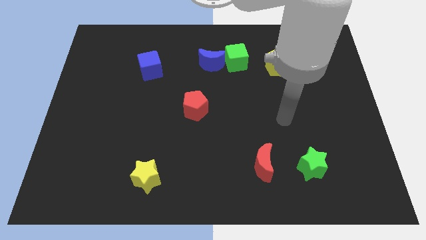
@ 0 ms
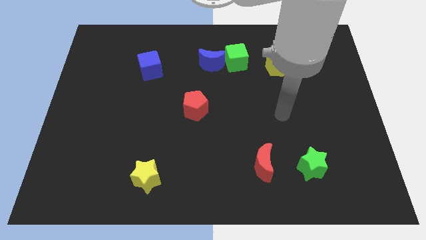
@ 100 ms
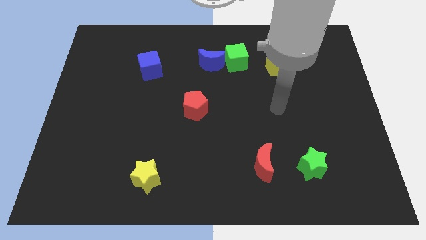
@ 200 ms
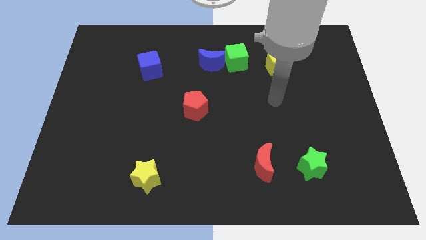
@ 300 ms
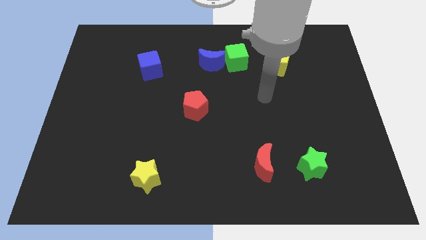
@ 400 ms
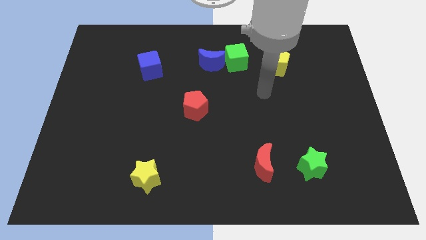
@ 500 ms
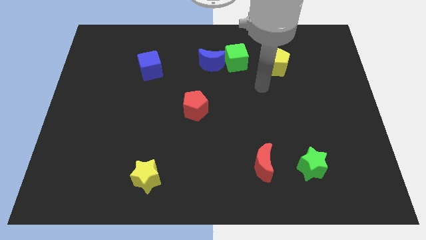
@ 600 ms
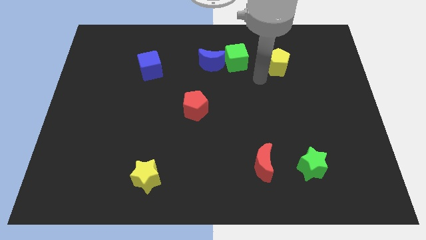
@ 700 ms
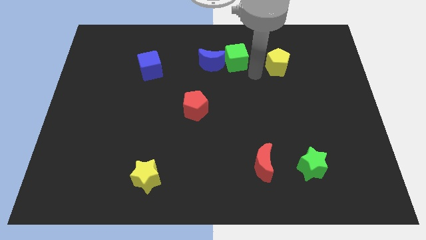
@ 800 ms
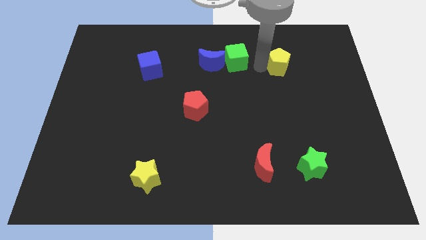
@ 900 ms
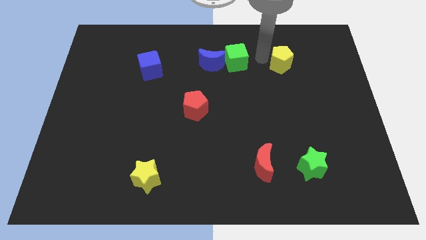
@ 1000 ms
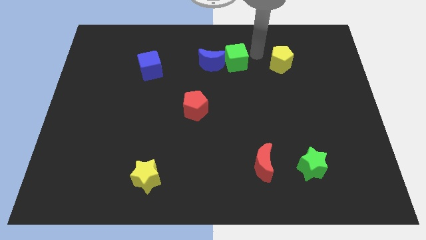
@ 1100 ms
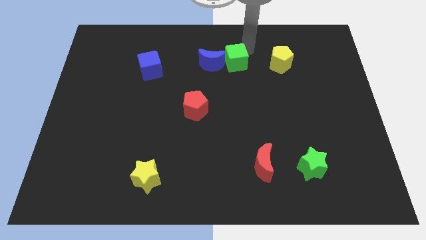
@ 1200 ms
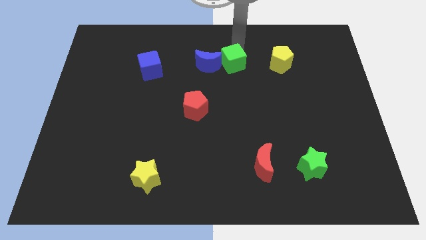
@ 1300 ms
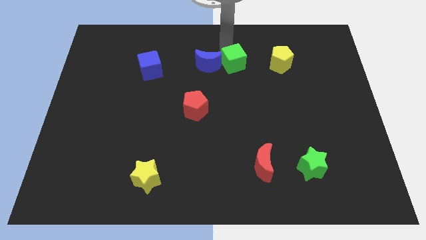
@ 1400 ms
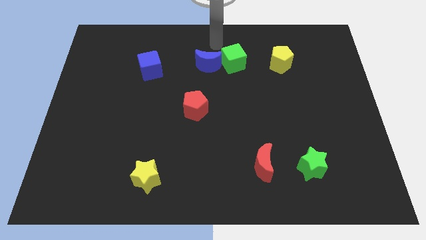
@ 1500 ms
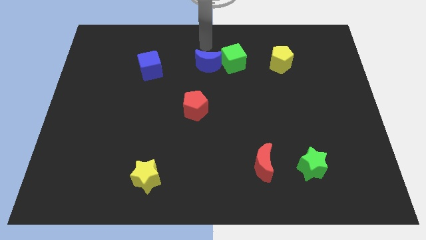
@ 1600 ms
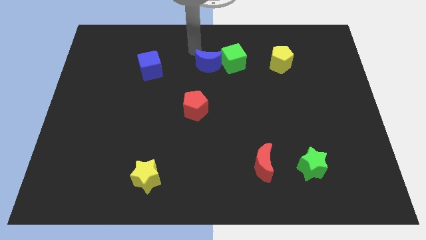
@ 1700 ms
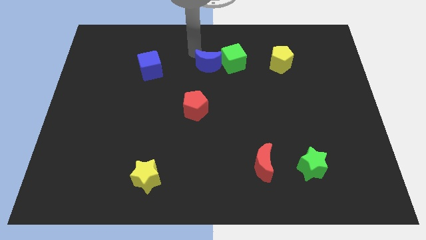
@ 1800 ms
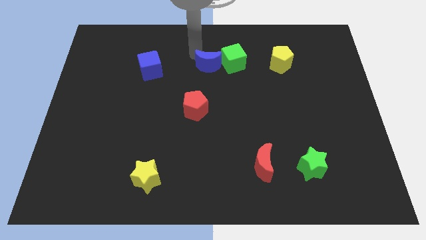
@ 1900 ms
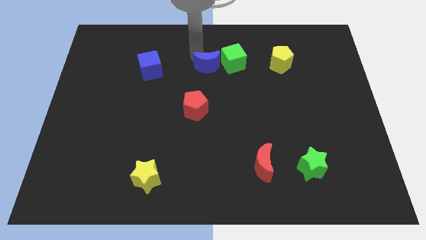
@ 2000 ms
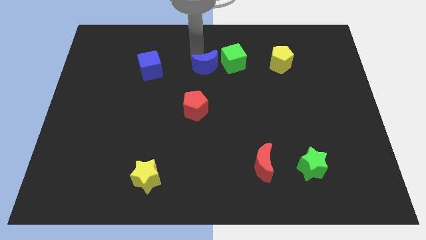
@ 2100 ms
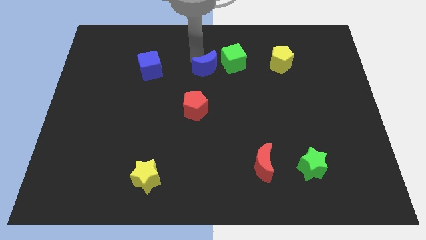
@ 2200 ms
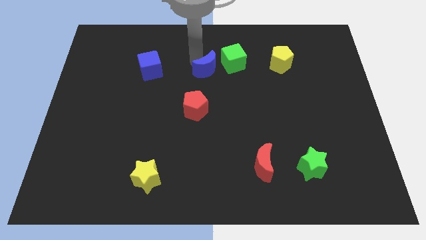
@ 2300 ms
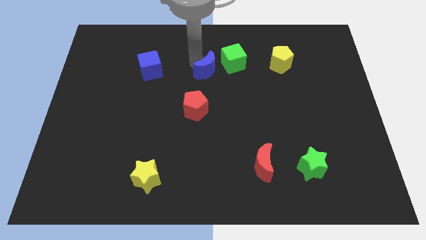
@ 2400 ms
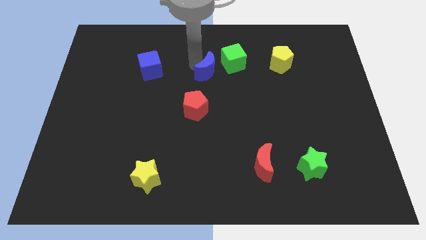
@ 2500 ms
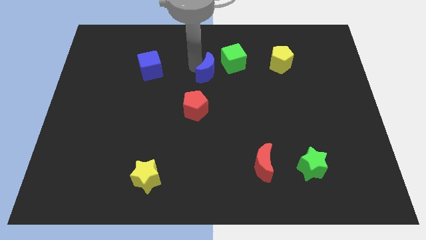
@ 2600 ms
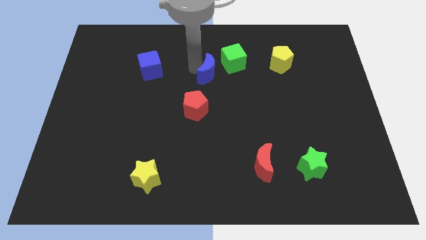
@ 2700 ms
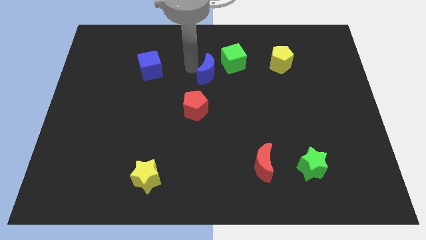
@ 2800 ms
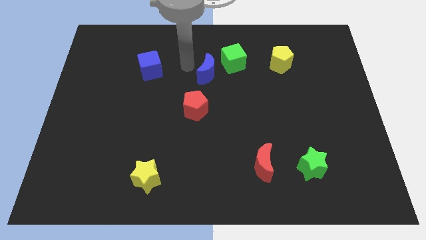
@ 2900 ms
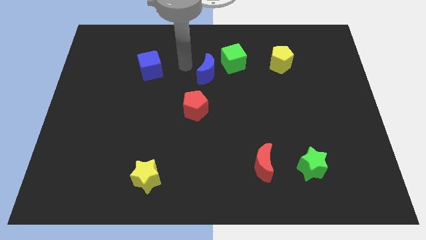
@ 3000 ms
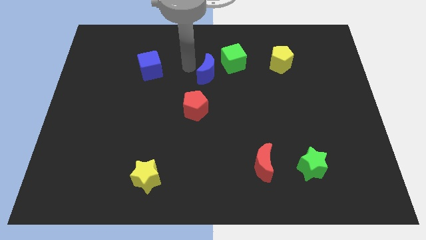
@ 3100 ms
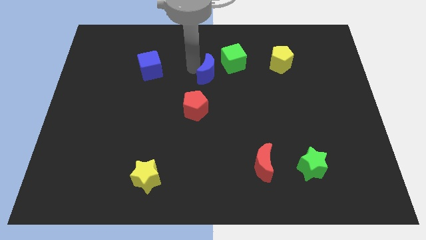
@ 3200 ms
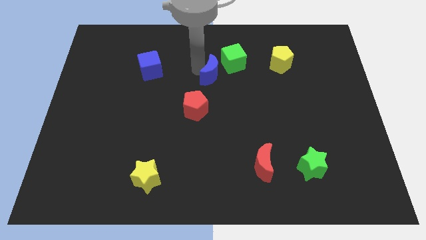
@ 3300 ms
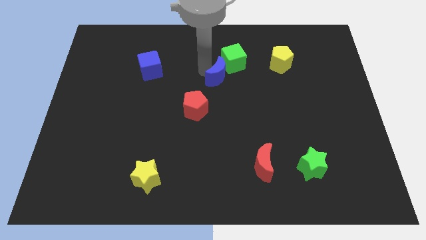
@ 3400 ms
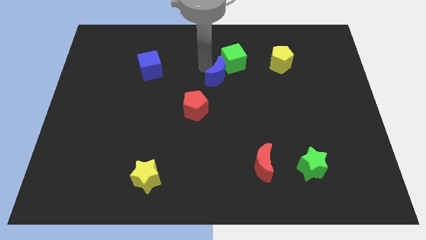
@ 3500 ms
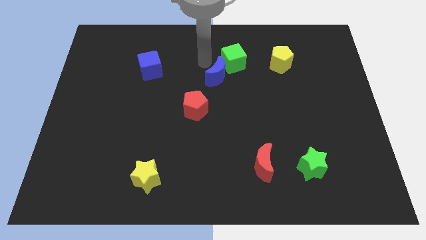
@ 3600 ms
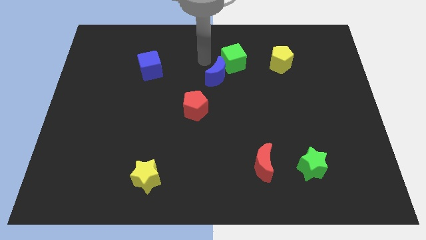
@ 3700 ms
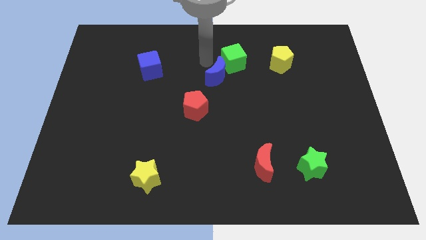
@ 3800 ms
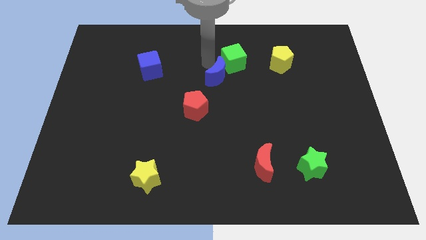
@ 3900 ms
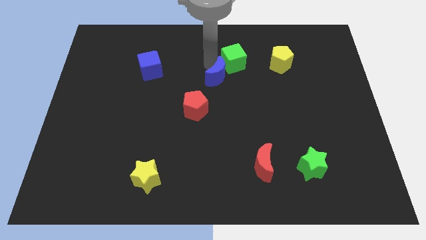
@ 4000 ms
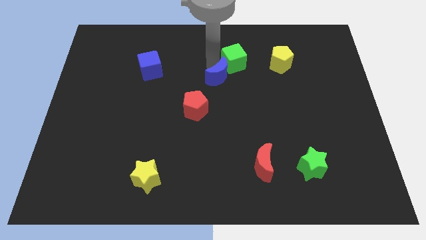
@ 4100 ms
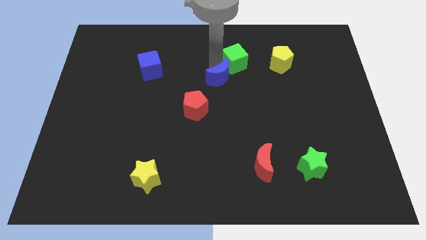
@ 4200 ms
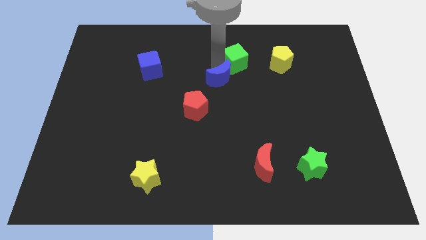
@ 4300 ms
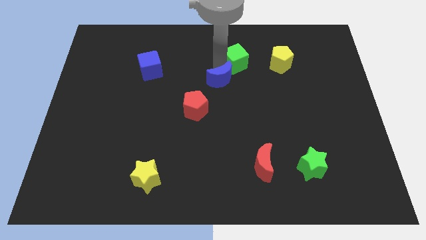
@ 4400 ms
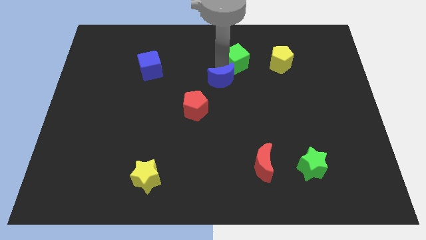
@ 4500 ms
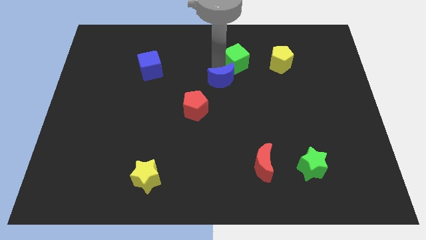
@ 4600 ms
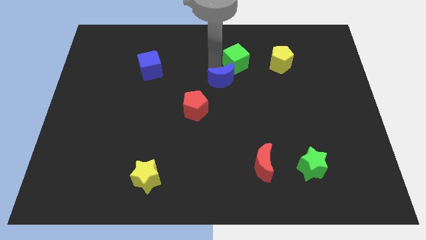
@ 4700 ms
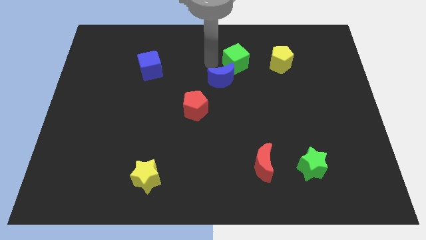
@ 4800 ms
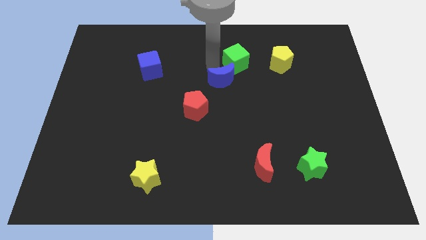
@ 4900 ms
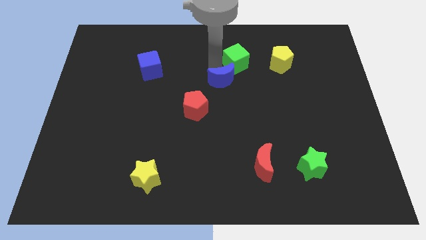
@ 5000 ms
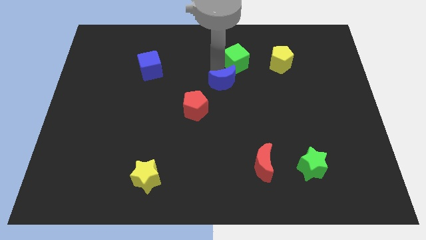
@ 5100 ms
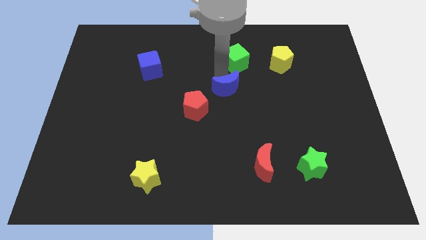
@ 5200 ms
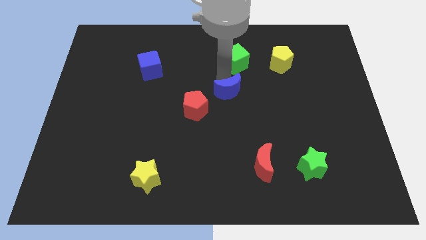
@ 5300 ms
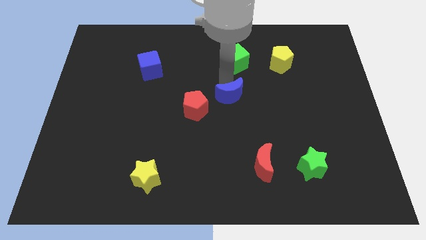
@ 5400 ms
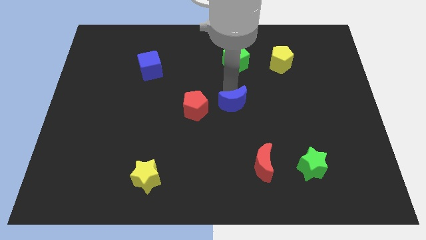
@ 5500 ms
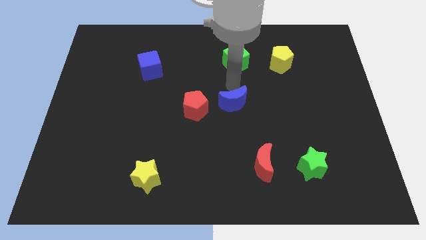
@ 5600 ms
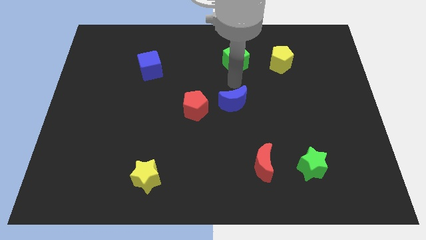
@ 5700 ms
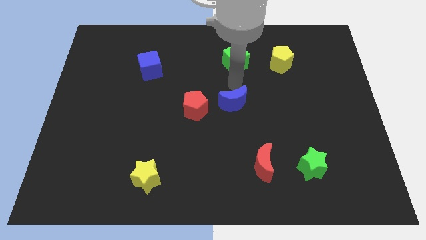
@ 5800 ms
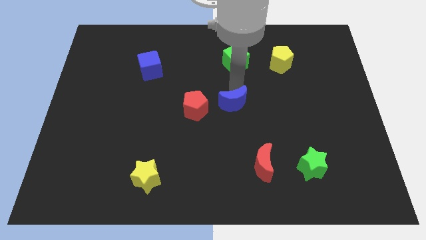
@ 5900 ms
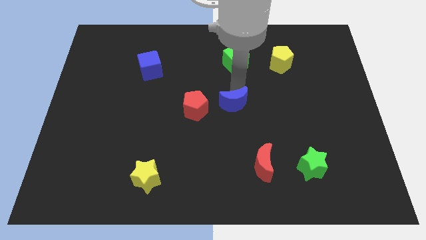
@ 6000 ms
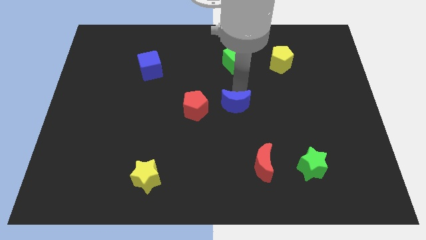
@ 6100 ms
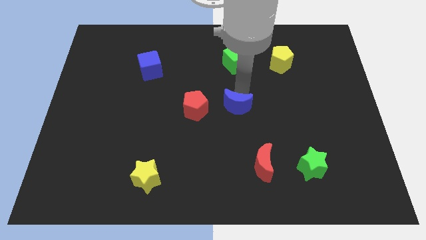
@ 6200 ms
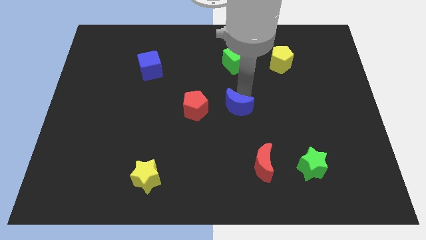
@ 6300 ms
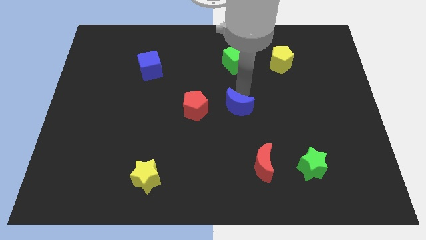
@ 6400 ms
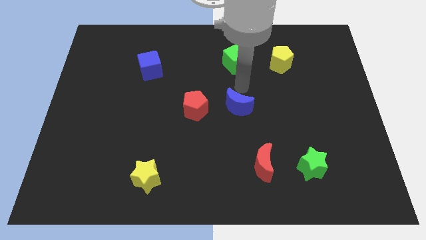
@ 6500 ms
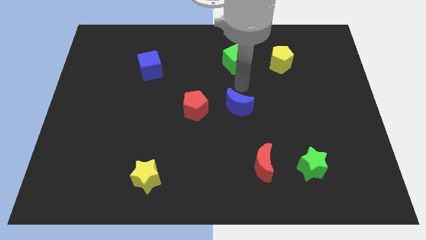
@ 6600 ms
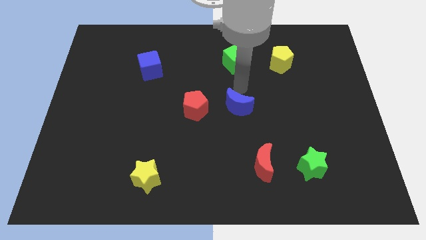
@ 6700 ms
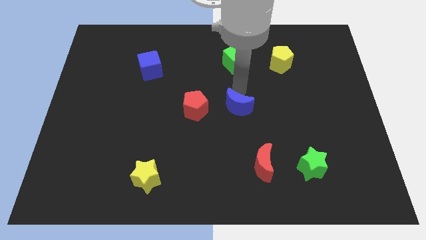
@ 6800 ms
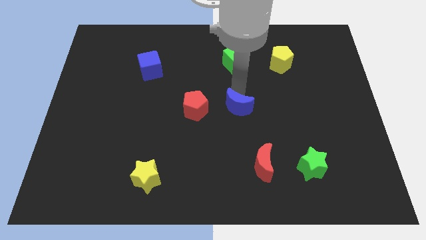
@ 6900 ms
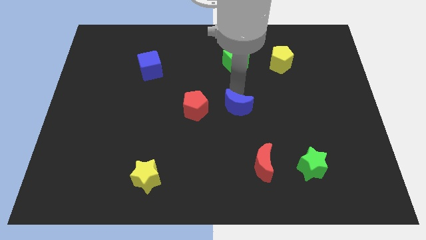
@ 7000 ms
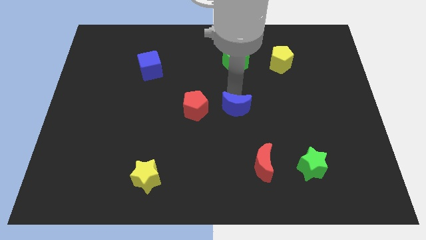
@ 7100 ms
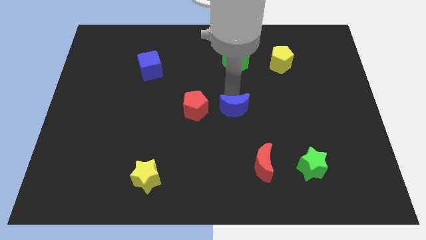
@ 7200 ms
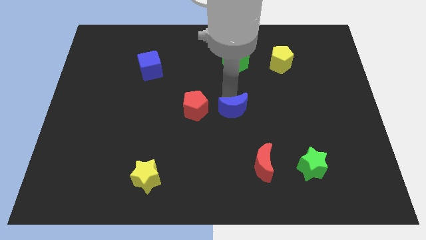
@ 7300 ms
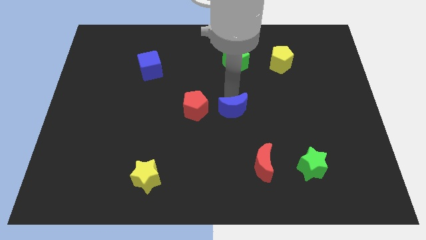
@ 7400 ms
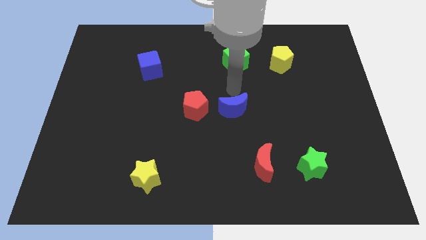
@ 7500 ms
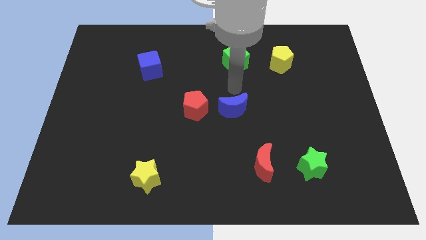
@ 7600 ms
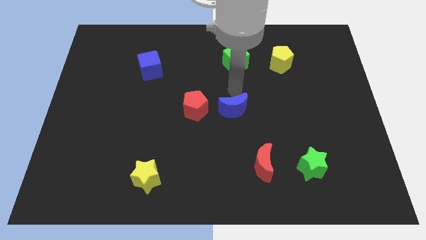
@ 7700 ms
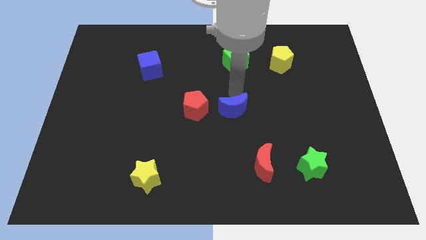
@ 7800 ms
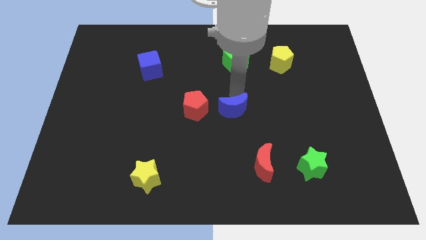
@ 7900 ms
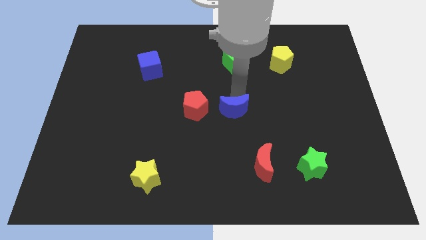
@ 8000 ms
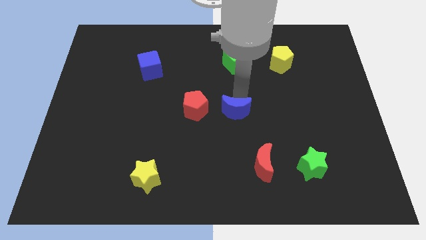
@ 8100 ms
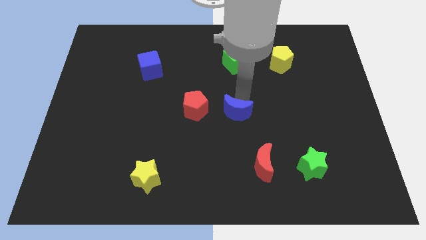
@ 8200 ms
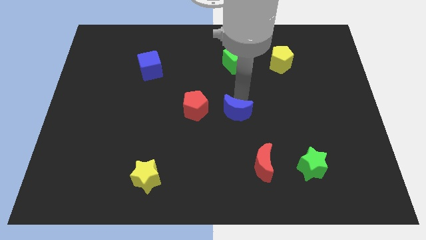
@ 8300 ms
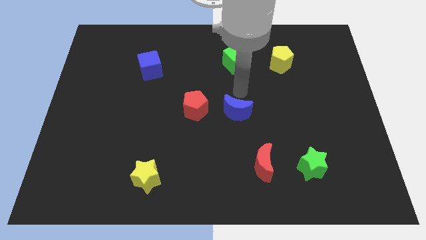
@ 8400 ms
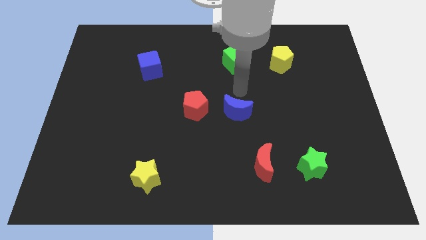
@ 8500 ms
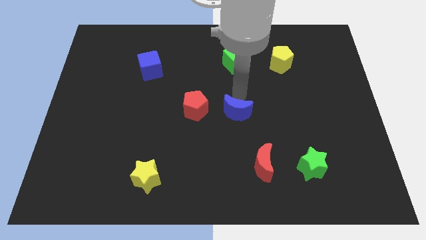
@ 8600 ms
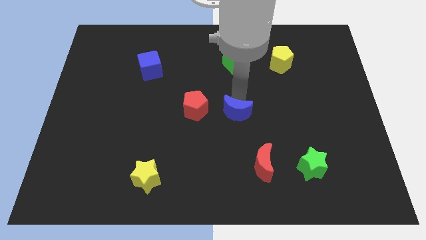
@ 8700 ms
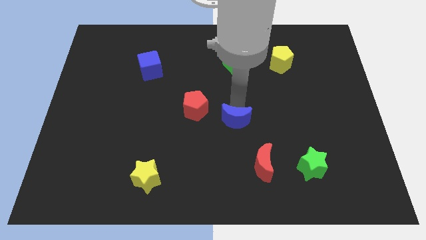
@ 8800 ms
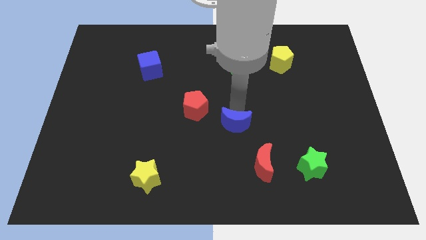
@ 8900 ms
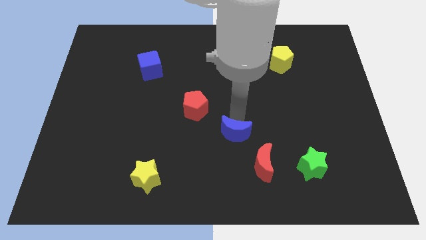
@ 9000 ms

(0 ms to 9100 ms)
push the blue moon downwards
